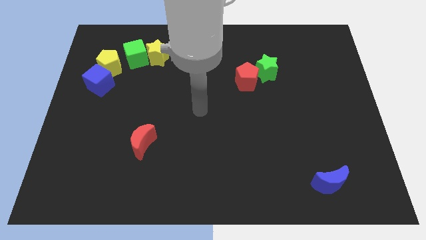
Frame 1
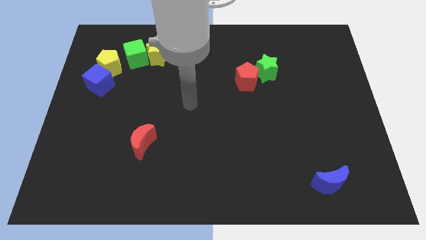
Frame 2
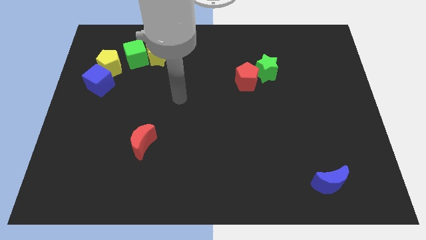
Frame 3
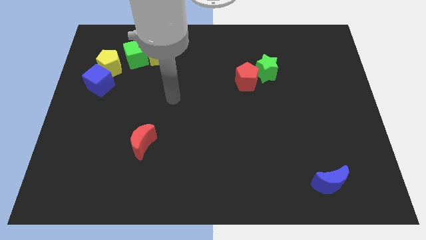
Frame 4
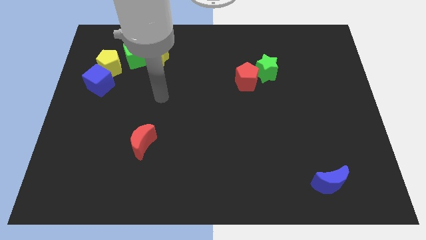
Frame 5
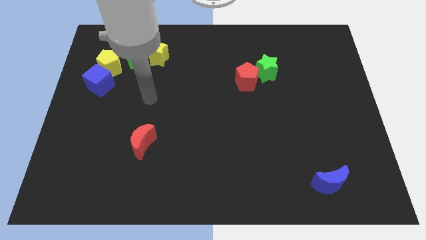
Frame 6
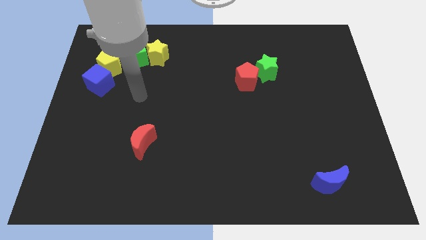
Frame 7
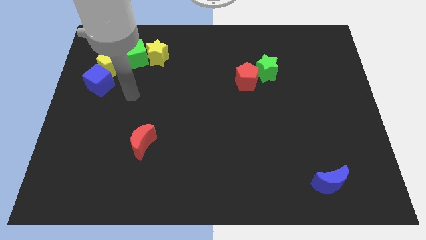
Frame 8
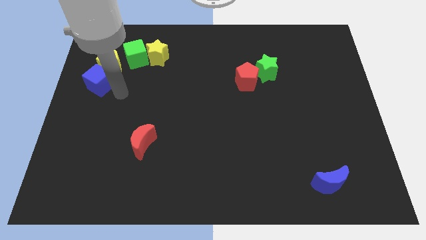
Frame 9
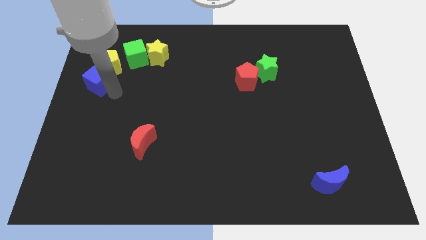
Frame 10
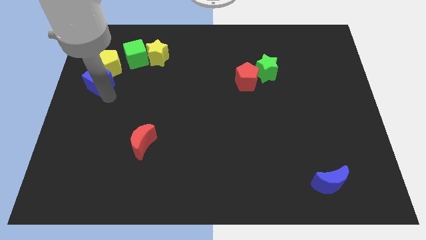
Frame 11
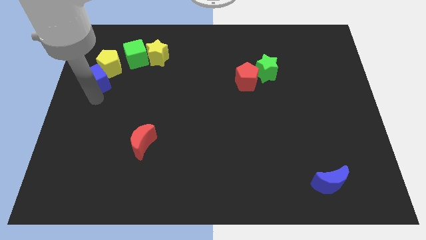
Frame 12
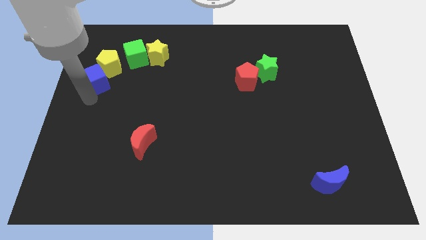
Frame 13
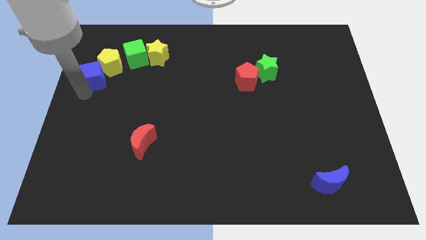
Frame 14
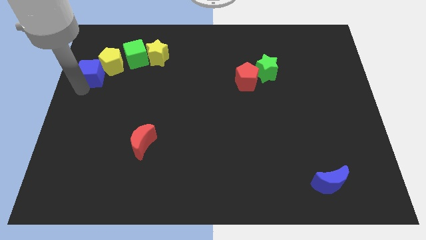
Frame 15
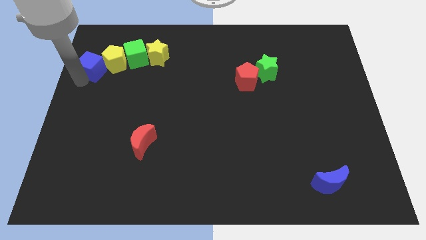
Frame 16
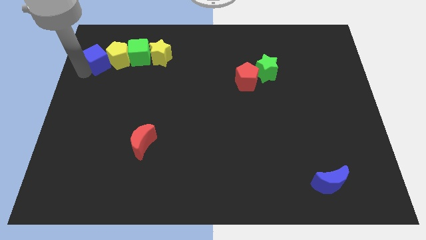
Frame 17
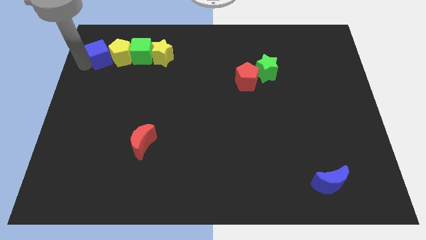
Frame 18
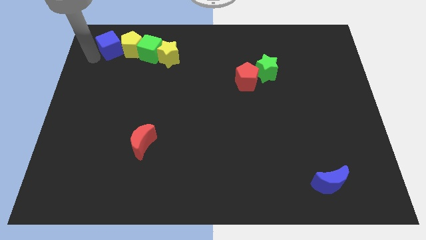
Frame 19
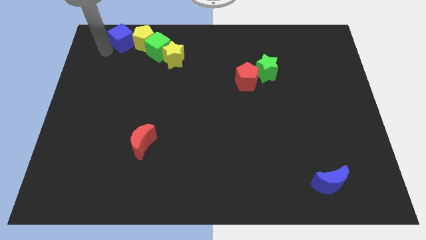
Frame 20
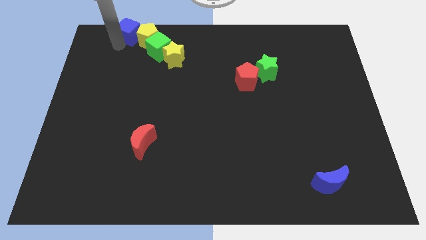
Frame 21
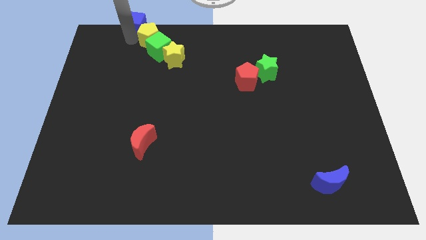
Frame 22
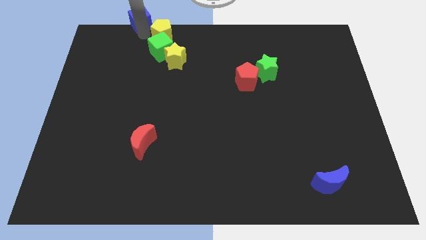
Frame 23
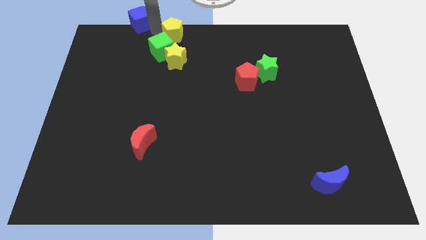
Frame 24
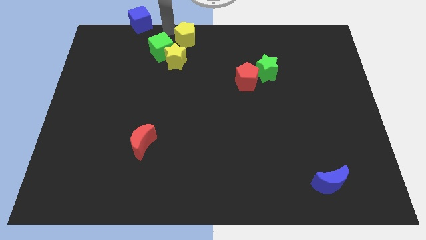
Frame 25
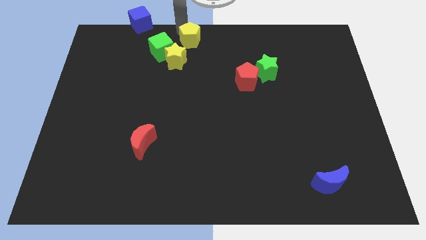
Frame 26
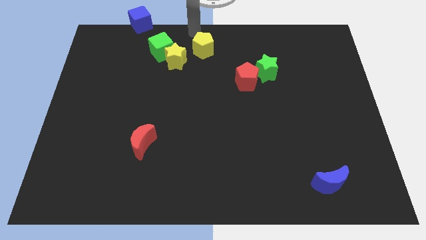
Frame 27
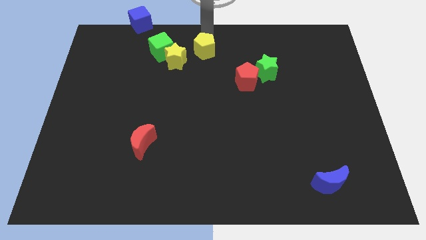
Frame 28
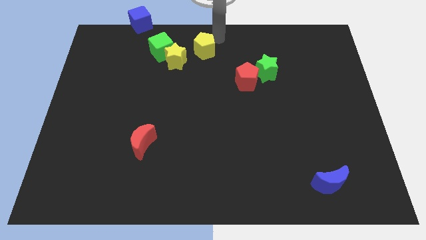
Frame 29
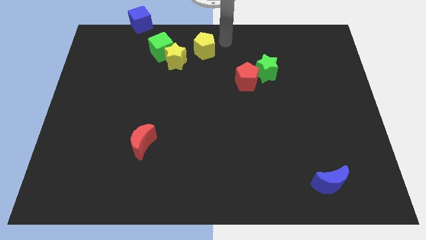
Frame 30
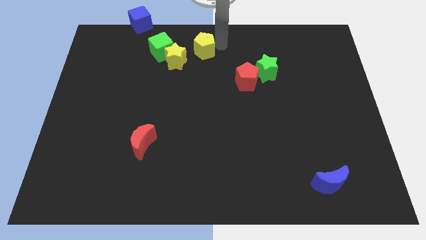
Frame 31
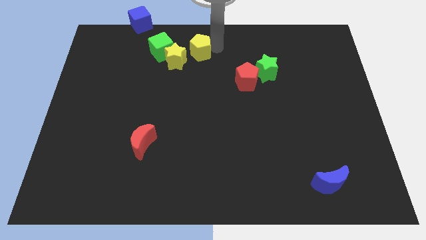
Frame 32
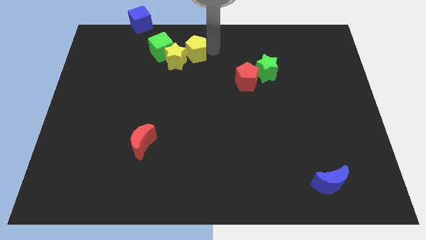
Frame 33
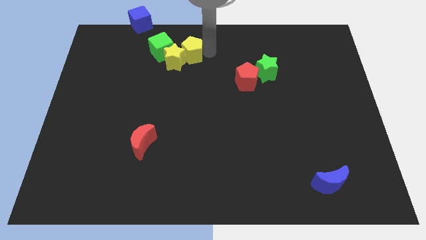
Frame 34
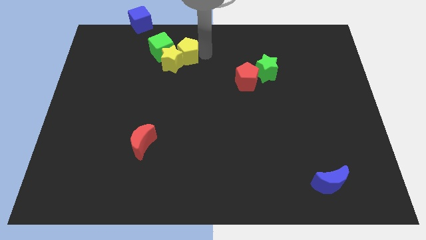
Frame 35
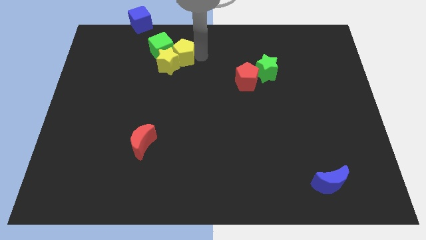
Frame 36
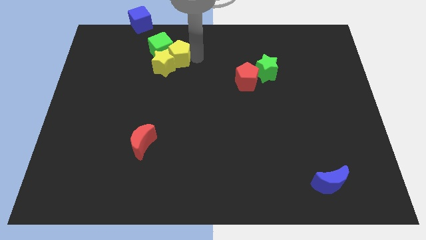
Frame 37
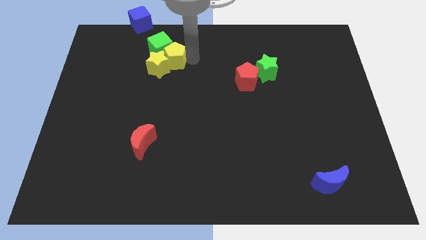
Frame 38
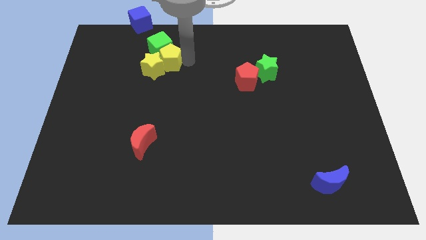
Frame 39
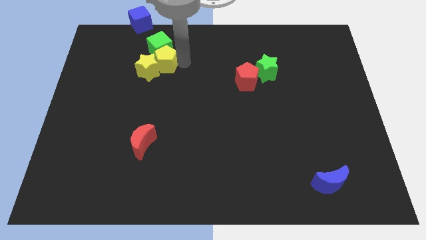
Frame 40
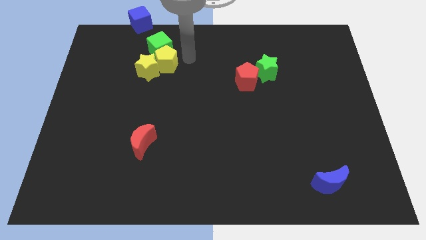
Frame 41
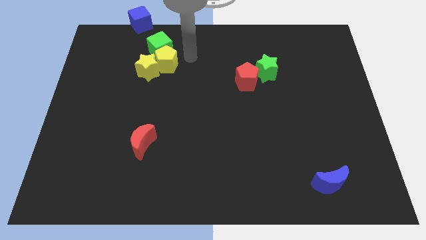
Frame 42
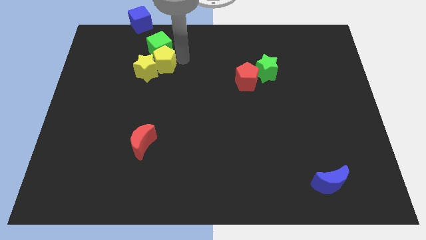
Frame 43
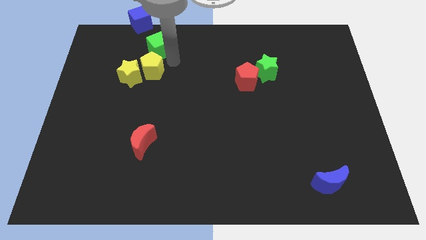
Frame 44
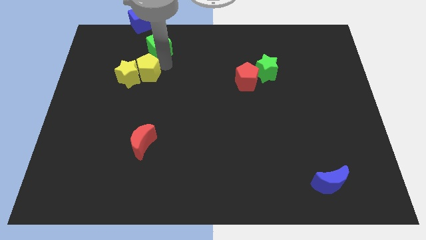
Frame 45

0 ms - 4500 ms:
slide the yellow pentagon somewhat down and right diagonally

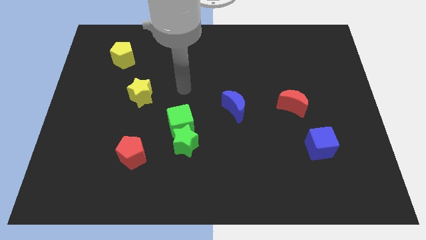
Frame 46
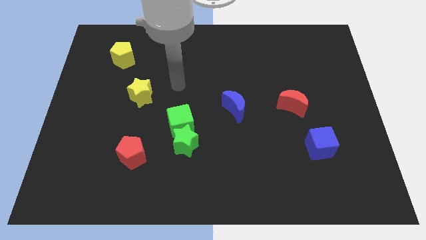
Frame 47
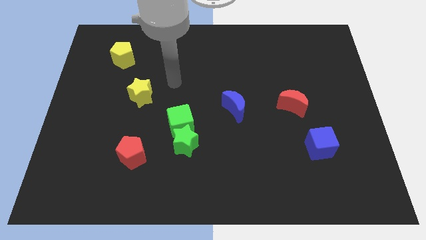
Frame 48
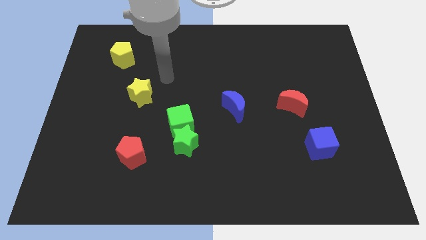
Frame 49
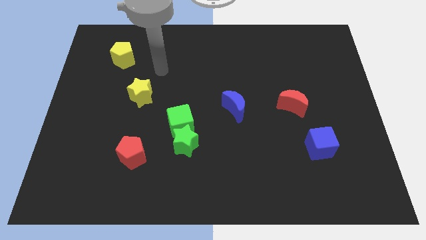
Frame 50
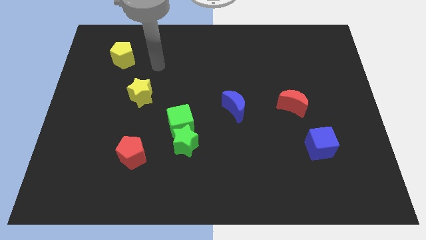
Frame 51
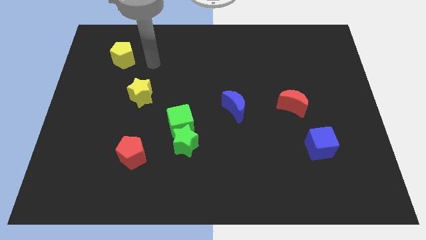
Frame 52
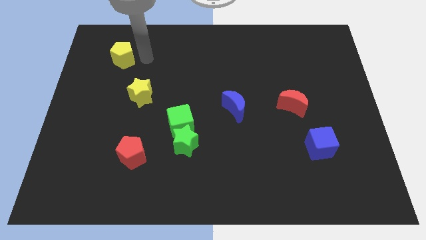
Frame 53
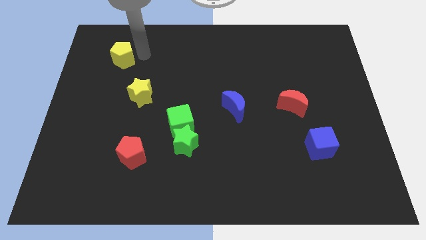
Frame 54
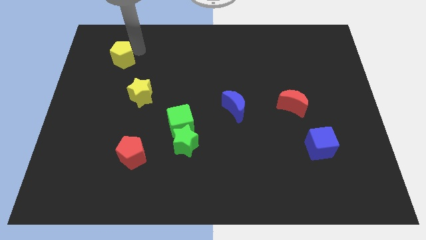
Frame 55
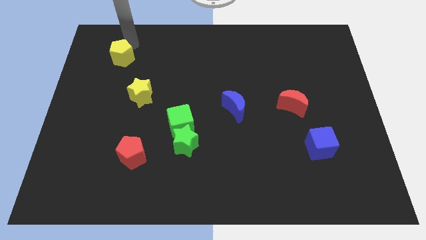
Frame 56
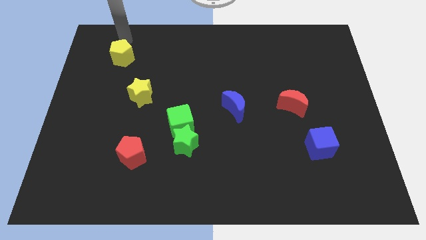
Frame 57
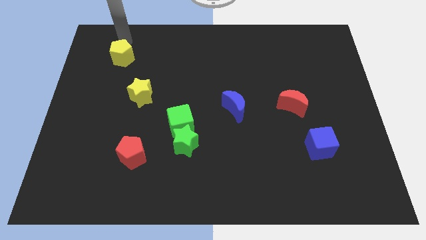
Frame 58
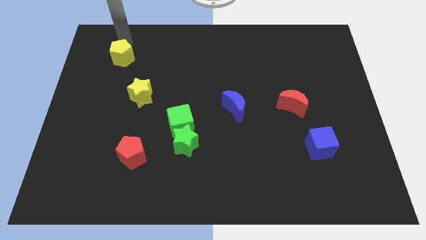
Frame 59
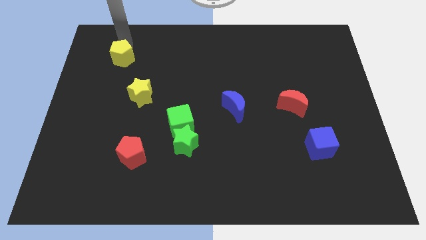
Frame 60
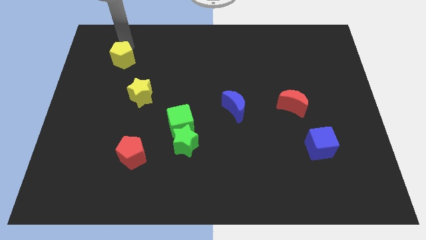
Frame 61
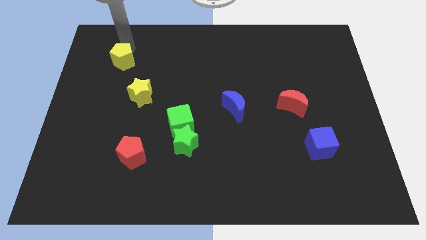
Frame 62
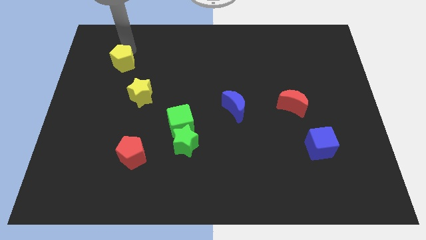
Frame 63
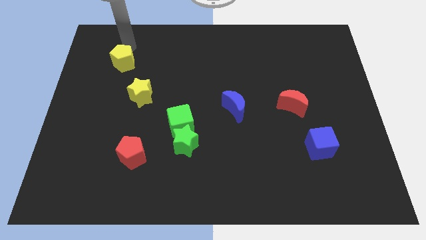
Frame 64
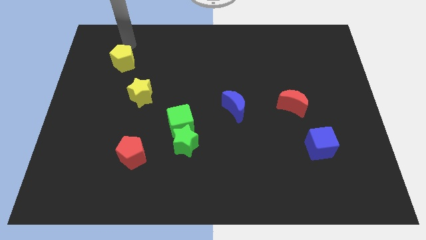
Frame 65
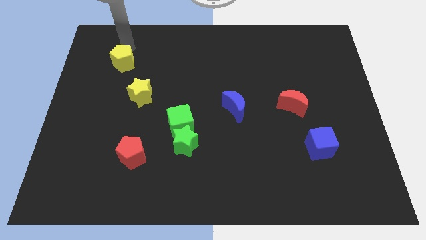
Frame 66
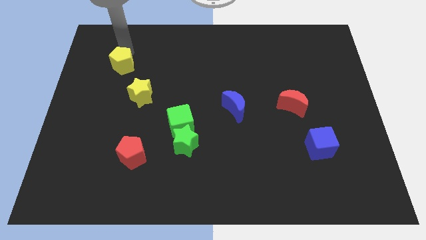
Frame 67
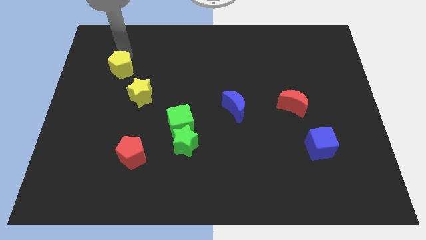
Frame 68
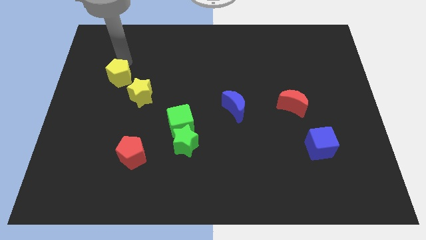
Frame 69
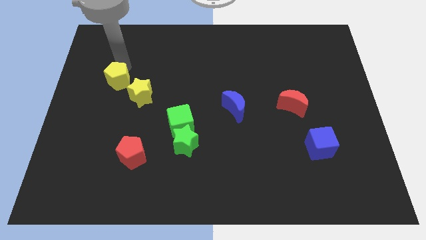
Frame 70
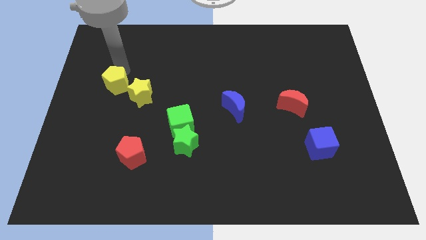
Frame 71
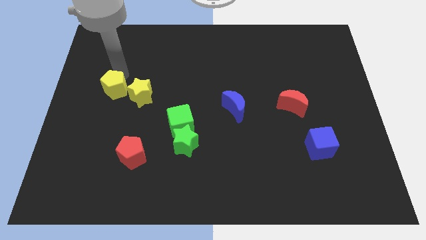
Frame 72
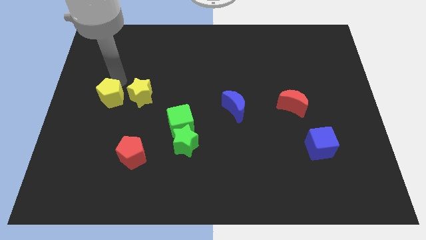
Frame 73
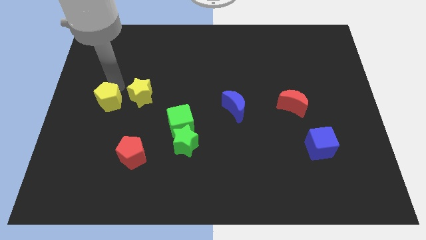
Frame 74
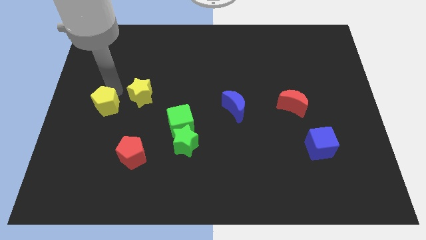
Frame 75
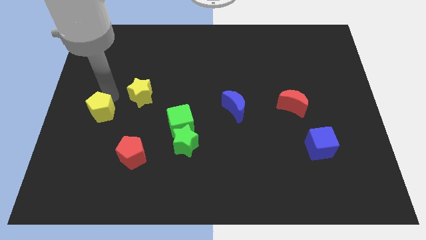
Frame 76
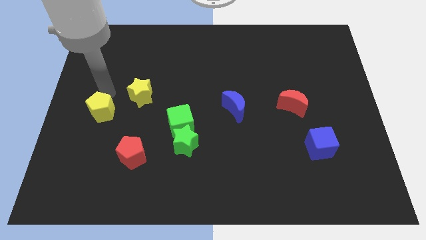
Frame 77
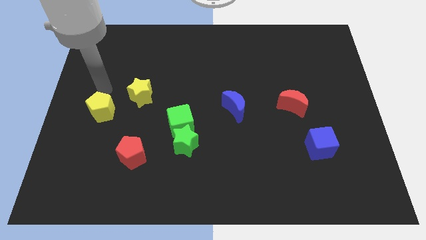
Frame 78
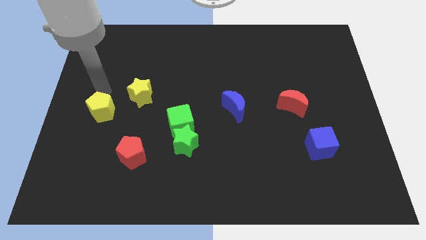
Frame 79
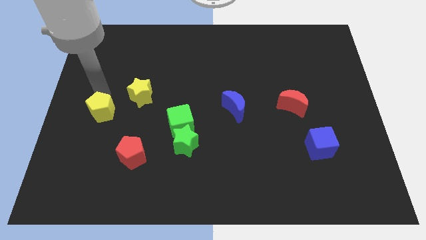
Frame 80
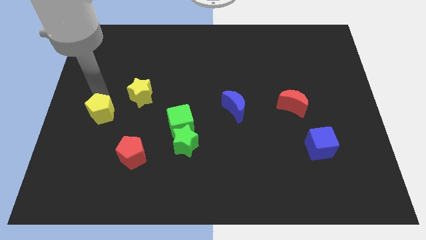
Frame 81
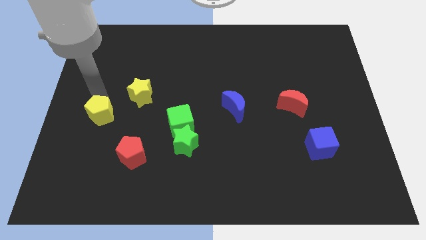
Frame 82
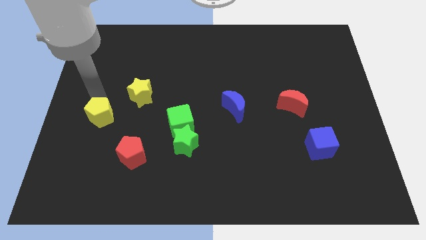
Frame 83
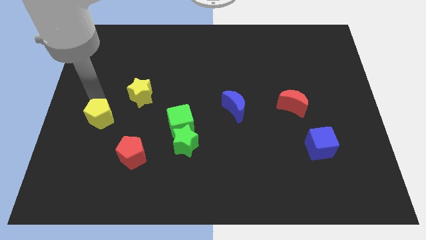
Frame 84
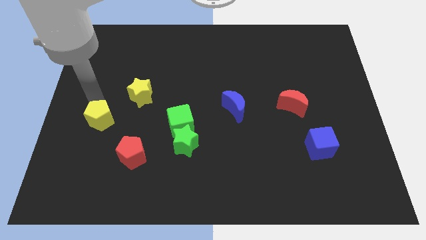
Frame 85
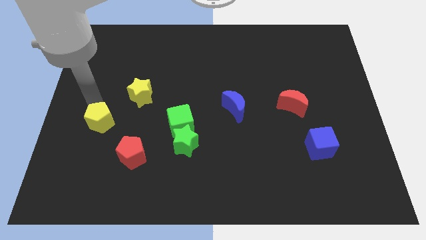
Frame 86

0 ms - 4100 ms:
move the yellow pentagon down
